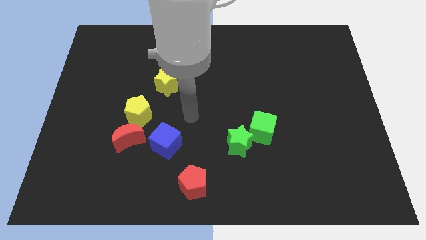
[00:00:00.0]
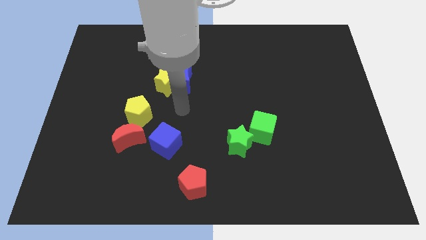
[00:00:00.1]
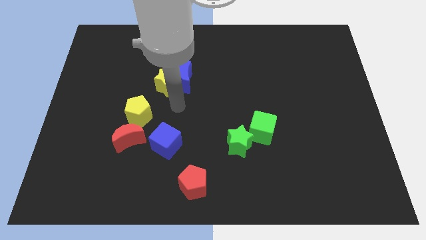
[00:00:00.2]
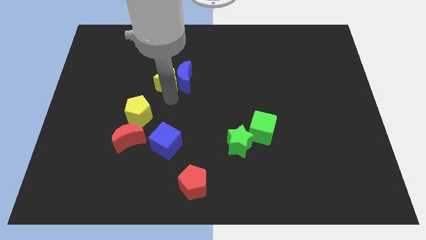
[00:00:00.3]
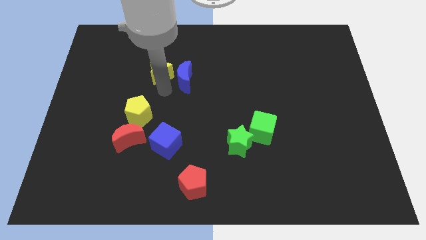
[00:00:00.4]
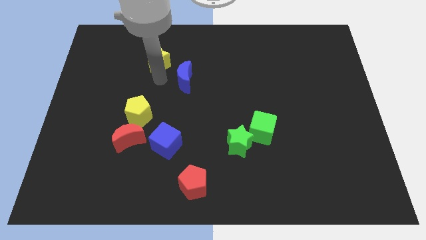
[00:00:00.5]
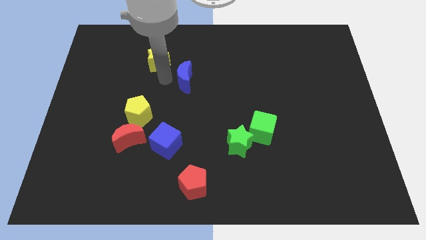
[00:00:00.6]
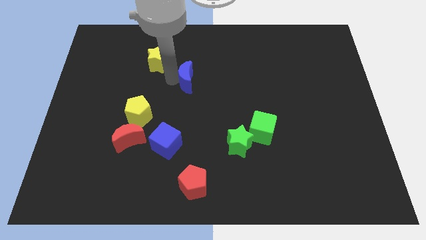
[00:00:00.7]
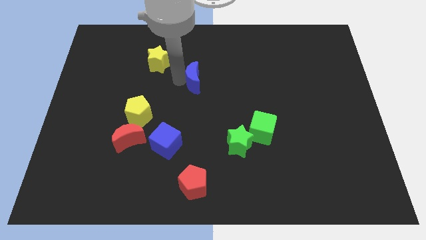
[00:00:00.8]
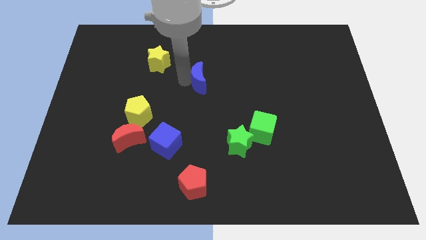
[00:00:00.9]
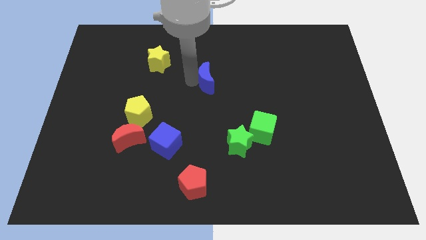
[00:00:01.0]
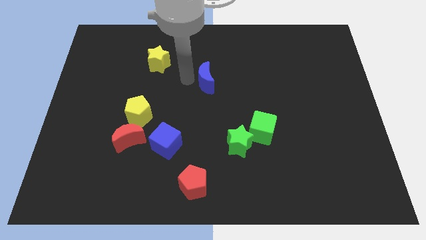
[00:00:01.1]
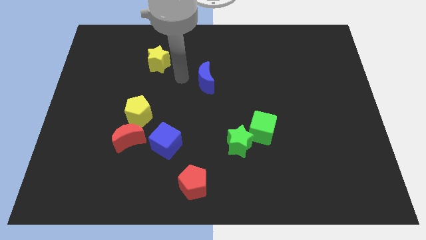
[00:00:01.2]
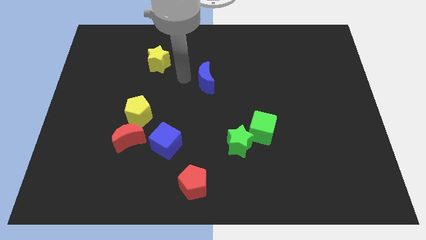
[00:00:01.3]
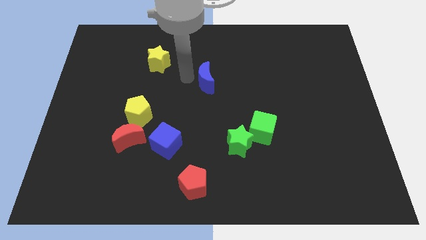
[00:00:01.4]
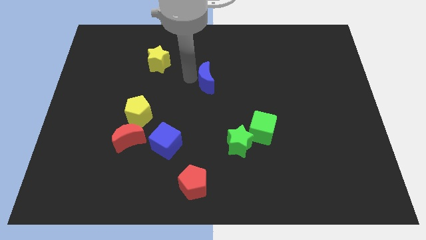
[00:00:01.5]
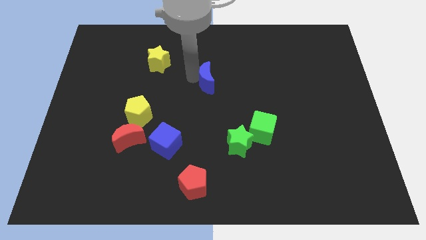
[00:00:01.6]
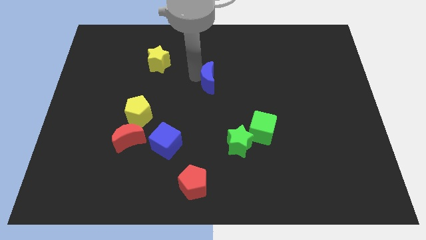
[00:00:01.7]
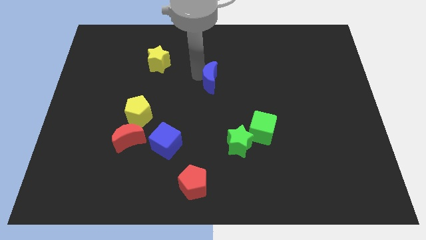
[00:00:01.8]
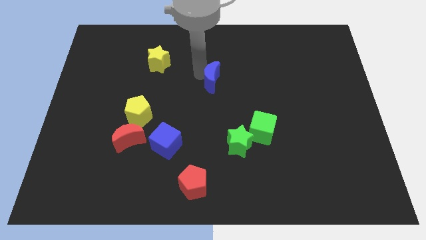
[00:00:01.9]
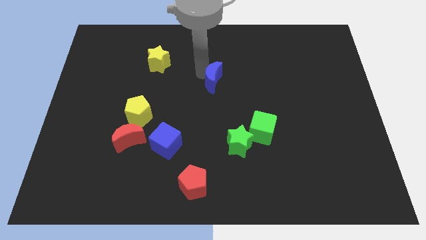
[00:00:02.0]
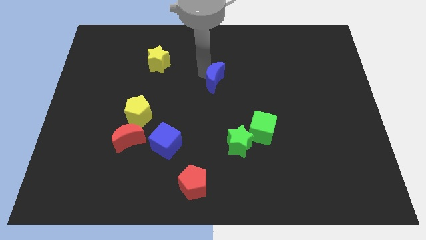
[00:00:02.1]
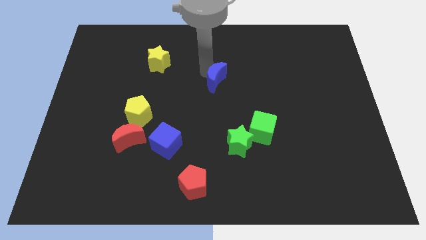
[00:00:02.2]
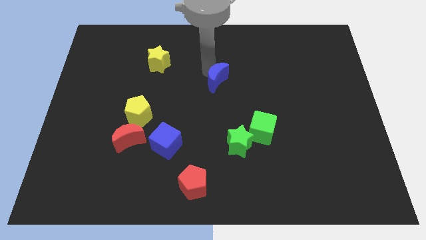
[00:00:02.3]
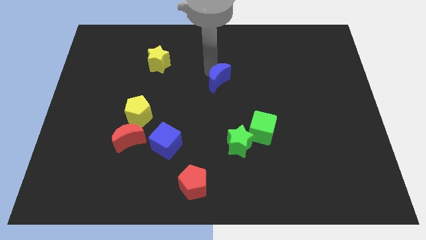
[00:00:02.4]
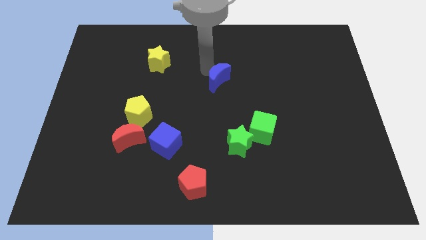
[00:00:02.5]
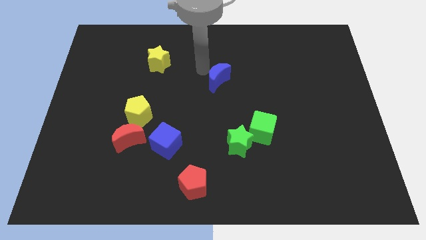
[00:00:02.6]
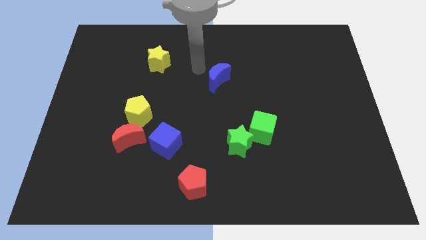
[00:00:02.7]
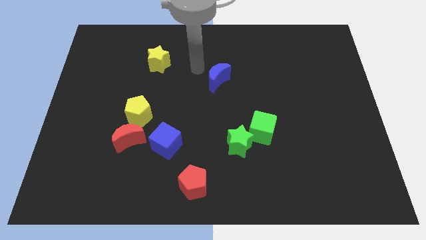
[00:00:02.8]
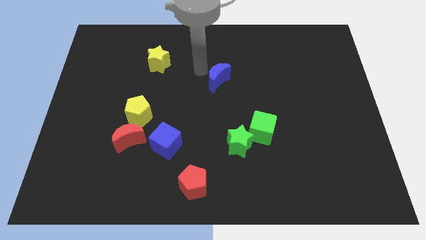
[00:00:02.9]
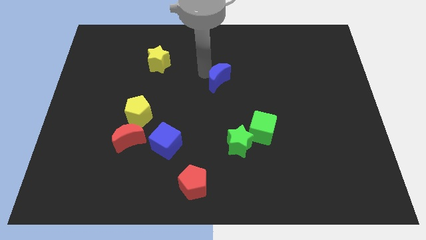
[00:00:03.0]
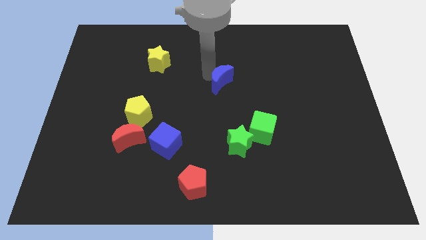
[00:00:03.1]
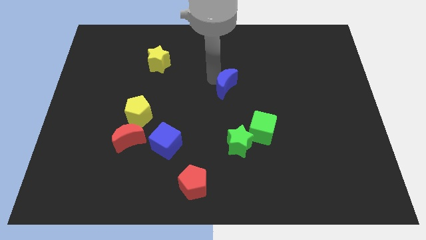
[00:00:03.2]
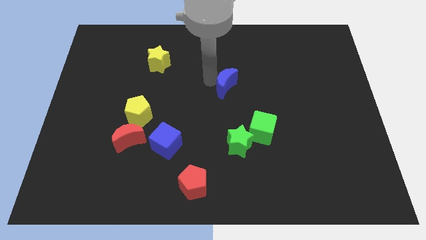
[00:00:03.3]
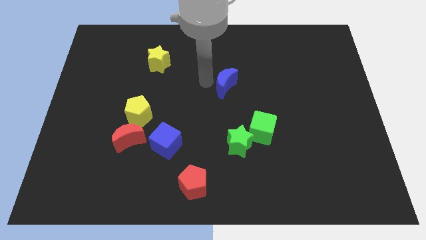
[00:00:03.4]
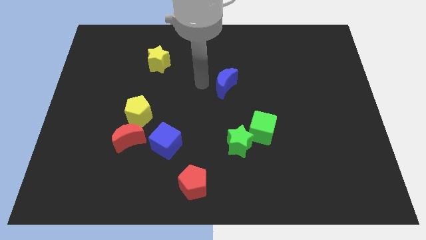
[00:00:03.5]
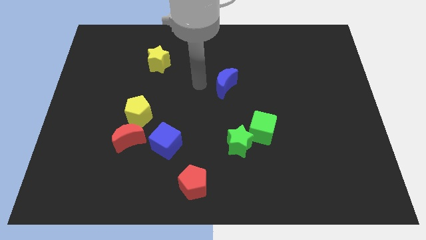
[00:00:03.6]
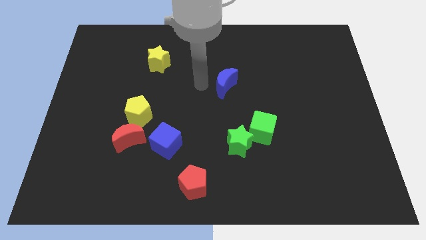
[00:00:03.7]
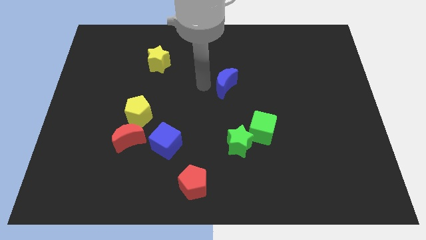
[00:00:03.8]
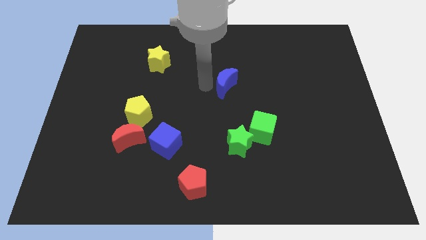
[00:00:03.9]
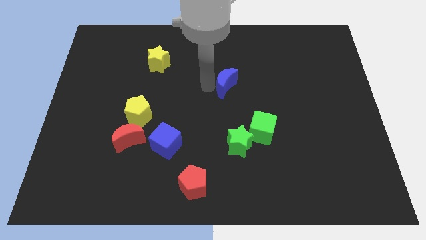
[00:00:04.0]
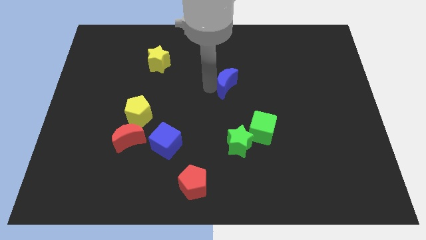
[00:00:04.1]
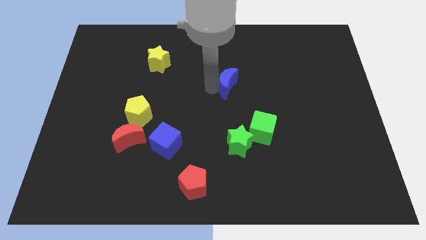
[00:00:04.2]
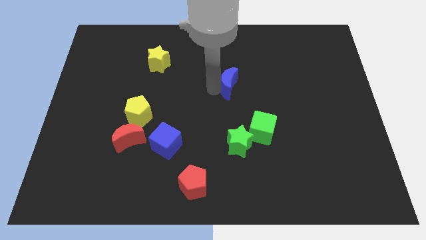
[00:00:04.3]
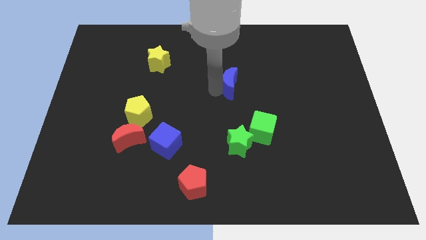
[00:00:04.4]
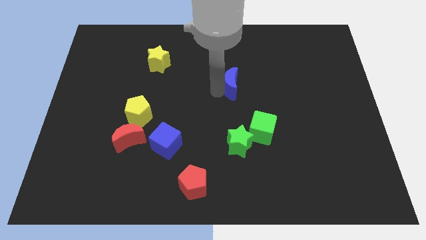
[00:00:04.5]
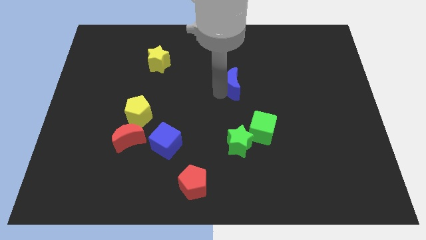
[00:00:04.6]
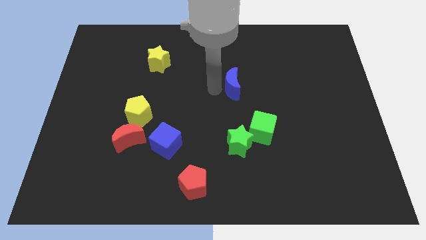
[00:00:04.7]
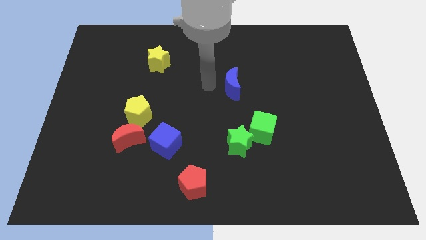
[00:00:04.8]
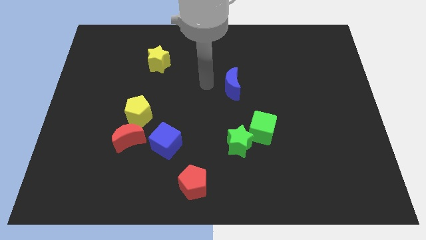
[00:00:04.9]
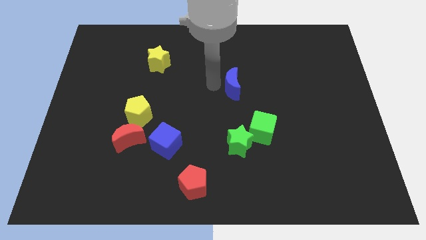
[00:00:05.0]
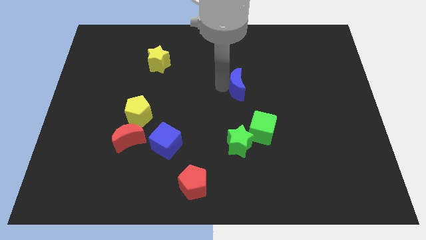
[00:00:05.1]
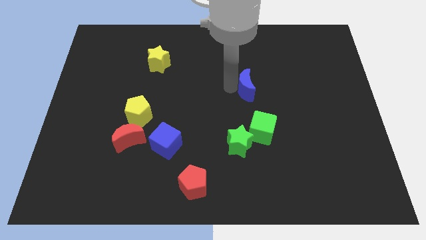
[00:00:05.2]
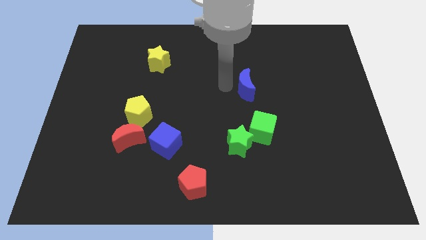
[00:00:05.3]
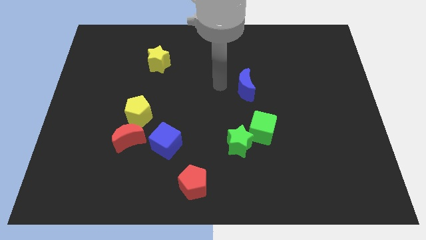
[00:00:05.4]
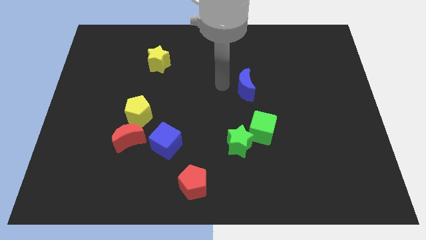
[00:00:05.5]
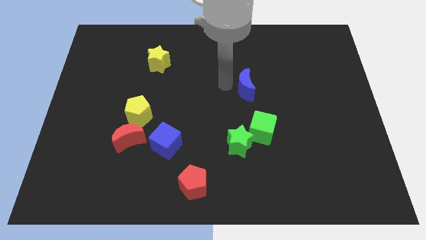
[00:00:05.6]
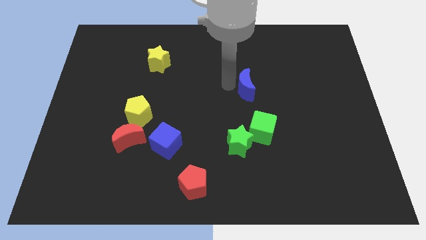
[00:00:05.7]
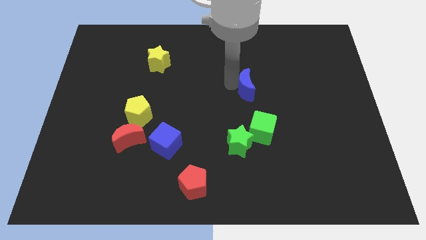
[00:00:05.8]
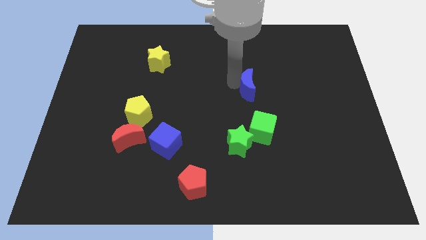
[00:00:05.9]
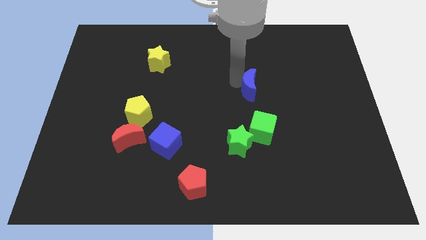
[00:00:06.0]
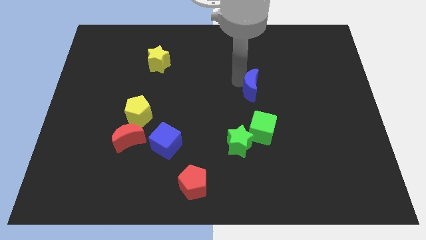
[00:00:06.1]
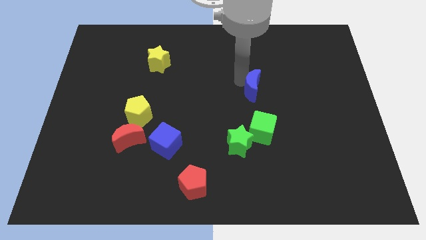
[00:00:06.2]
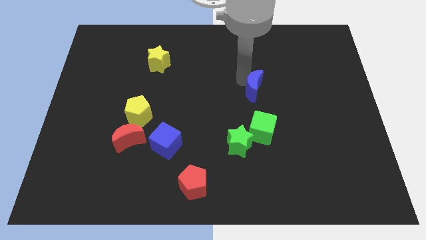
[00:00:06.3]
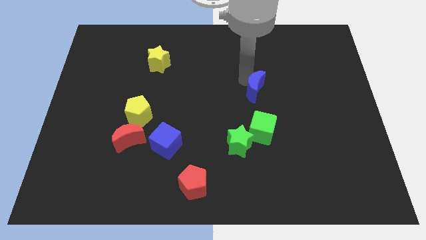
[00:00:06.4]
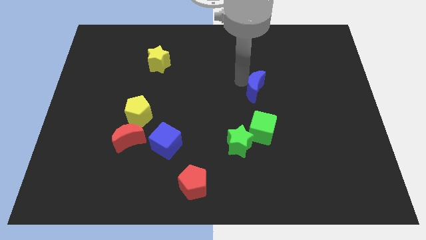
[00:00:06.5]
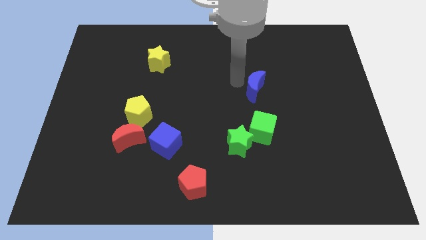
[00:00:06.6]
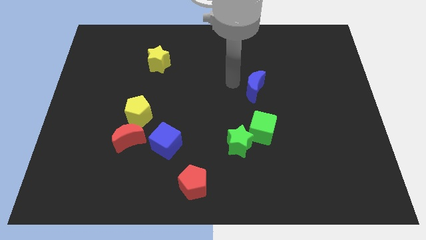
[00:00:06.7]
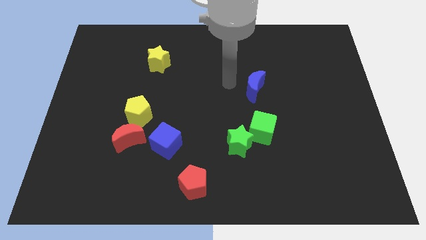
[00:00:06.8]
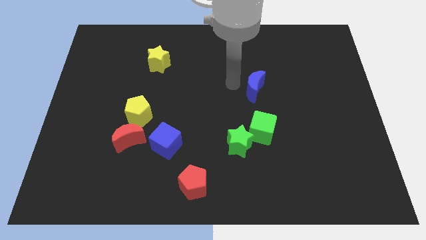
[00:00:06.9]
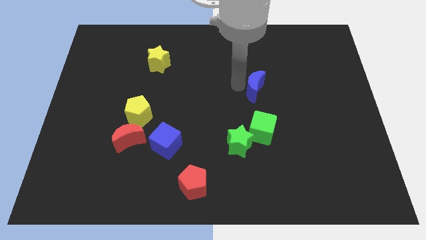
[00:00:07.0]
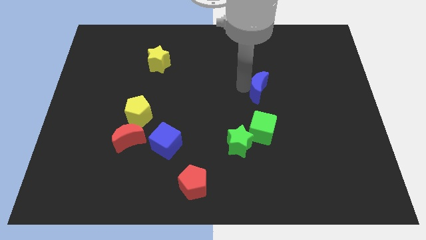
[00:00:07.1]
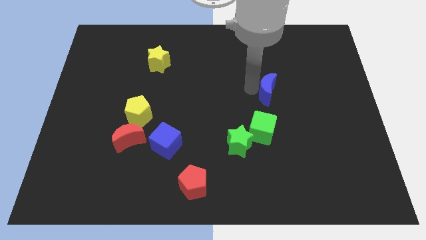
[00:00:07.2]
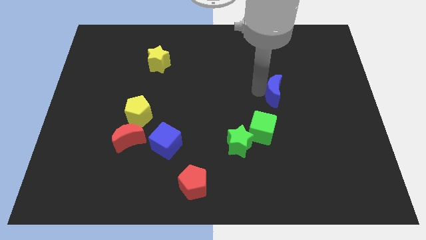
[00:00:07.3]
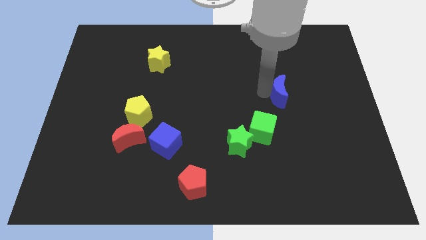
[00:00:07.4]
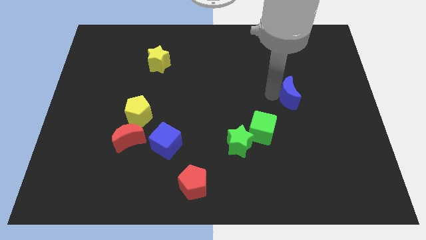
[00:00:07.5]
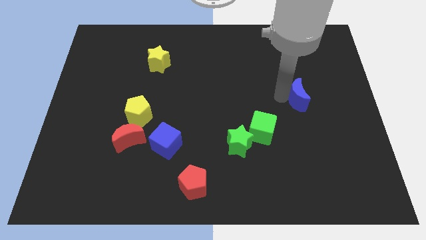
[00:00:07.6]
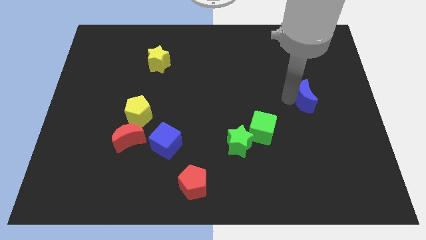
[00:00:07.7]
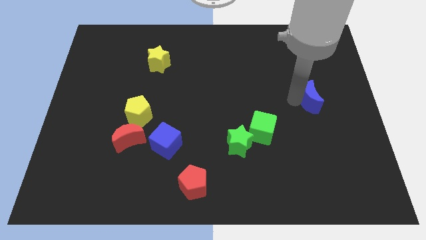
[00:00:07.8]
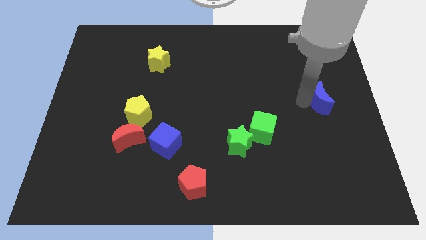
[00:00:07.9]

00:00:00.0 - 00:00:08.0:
push the blue moon to the right side of the board

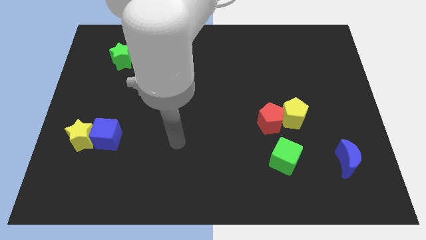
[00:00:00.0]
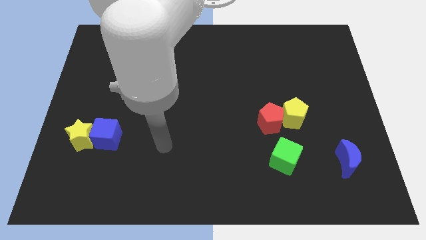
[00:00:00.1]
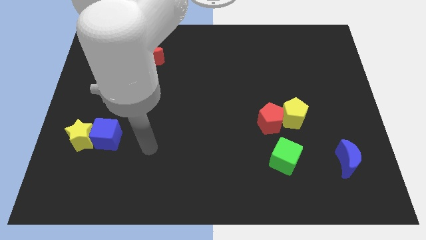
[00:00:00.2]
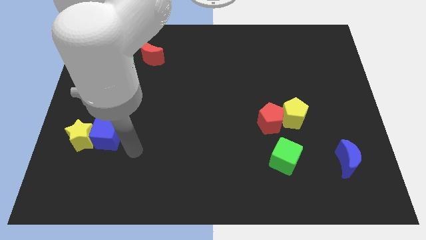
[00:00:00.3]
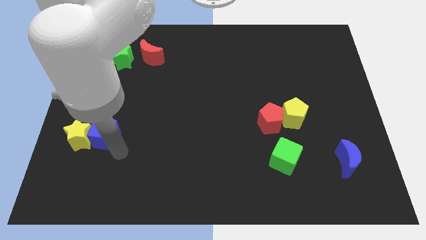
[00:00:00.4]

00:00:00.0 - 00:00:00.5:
slide the yellow star to the left side
